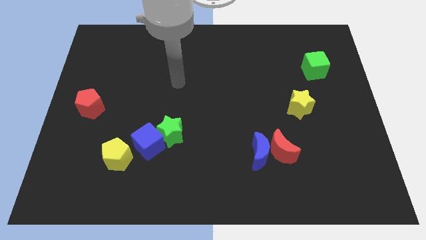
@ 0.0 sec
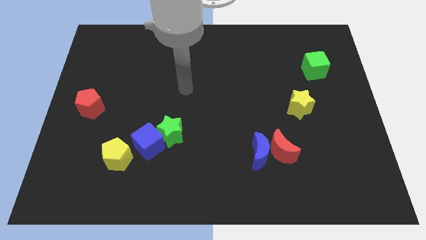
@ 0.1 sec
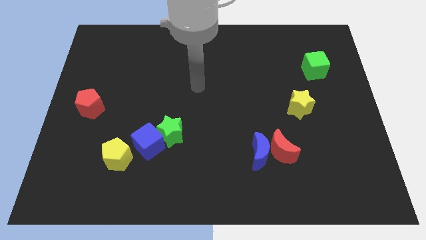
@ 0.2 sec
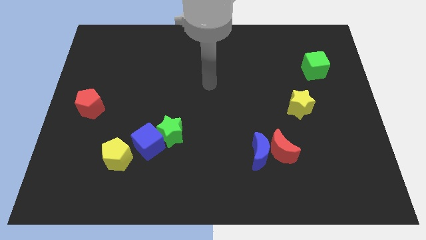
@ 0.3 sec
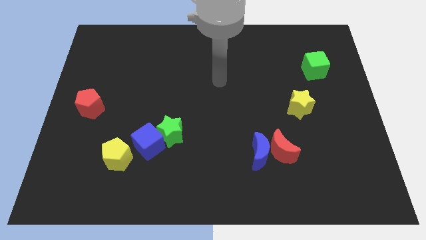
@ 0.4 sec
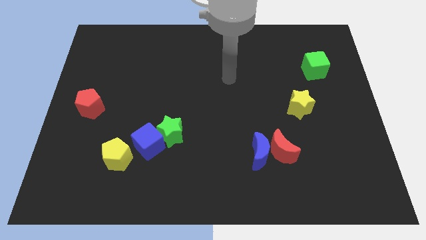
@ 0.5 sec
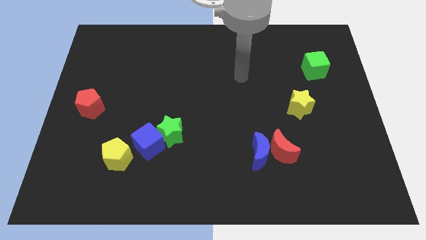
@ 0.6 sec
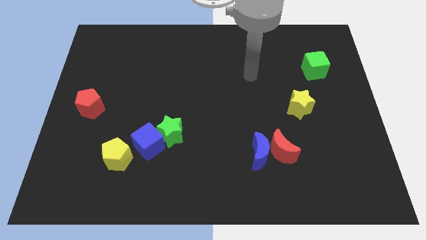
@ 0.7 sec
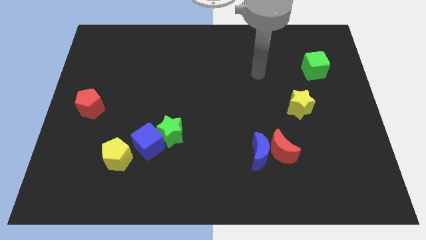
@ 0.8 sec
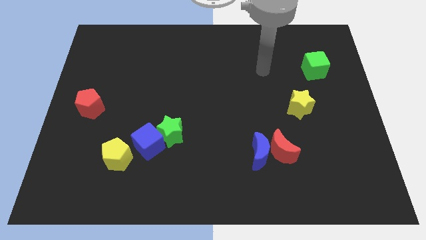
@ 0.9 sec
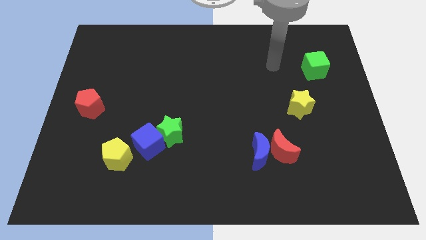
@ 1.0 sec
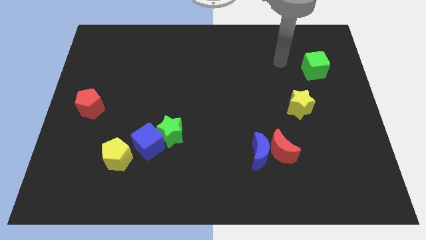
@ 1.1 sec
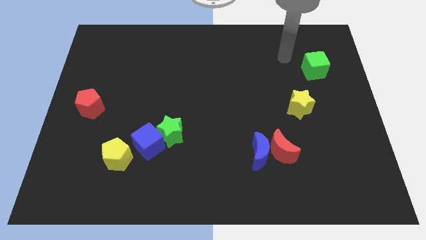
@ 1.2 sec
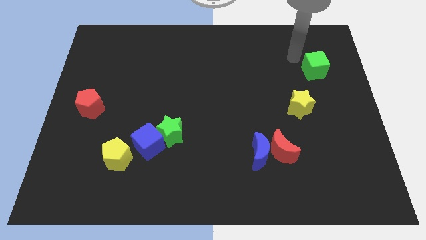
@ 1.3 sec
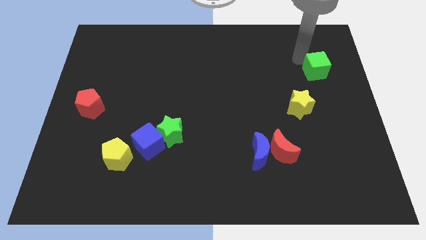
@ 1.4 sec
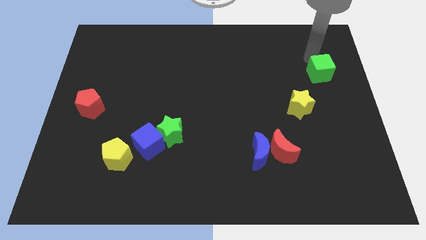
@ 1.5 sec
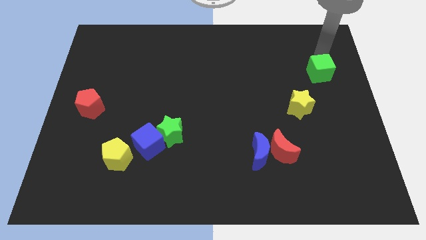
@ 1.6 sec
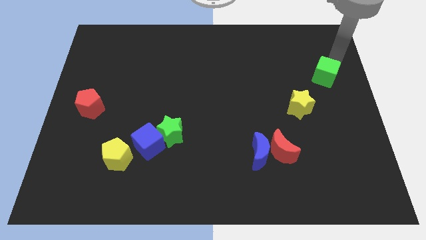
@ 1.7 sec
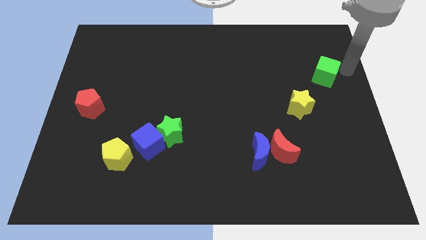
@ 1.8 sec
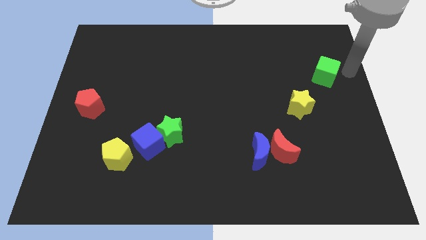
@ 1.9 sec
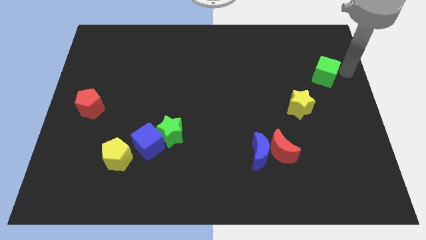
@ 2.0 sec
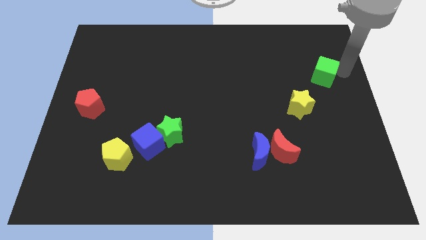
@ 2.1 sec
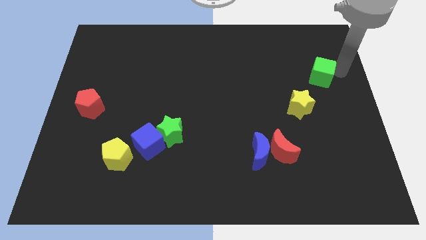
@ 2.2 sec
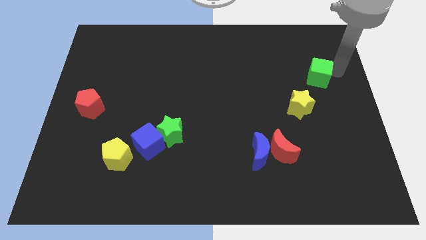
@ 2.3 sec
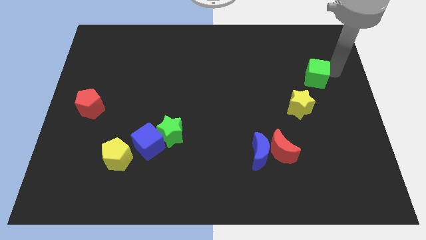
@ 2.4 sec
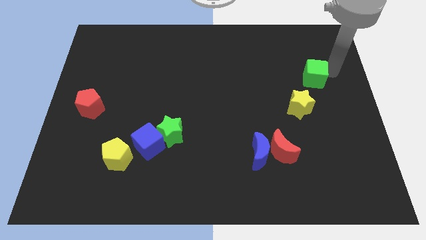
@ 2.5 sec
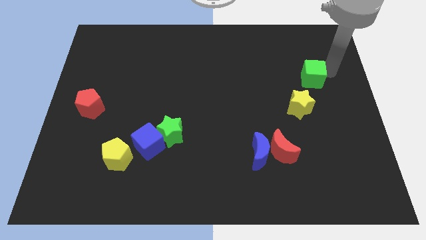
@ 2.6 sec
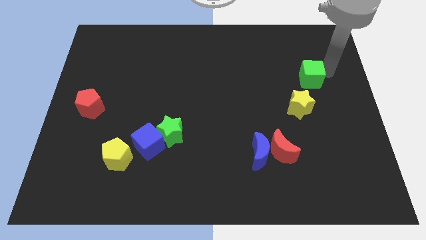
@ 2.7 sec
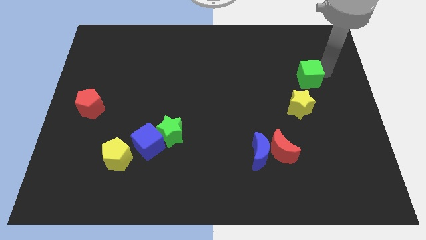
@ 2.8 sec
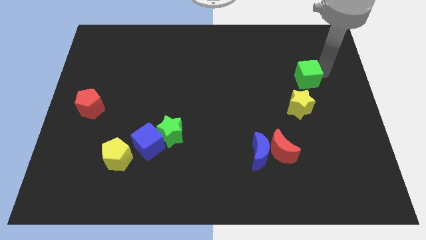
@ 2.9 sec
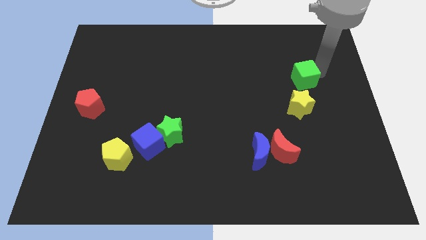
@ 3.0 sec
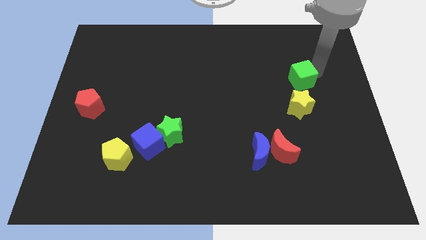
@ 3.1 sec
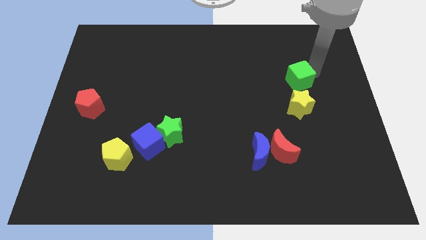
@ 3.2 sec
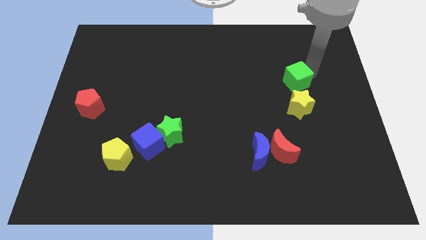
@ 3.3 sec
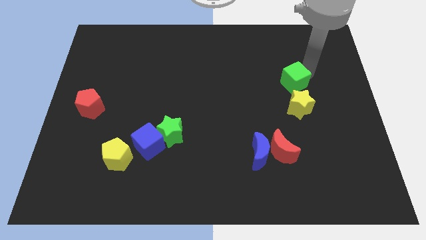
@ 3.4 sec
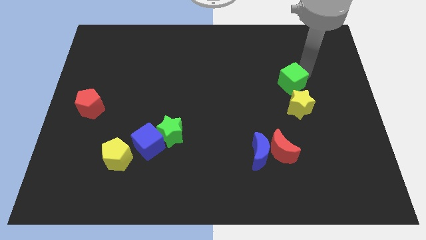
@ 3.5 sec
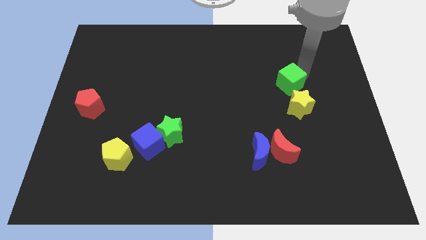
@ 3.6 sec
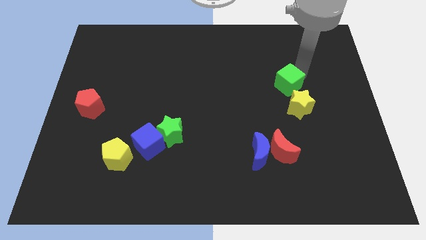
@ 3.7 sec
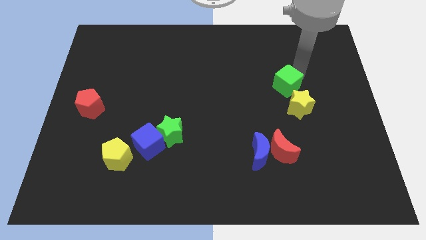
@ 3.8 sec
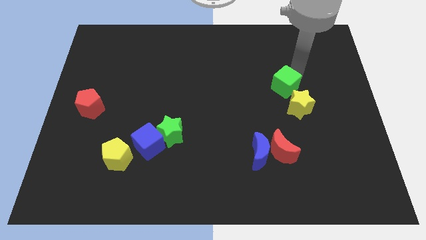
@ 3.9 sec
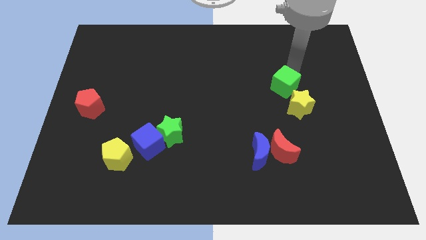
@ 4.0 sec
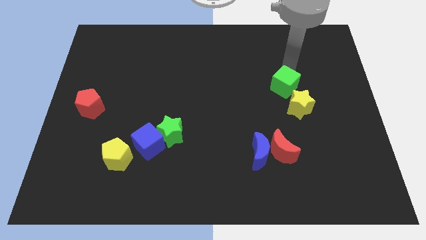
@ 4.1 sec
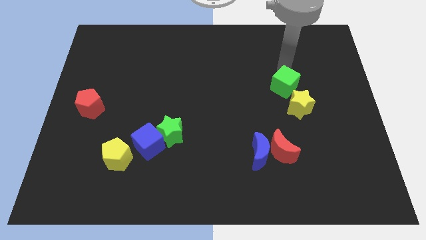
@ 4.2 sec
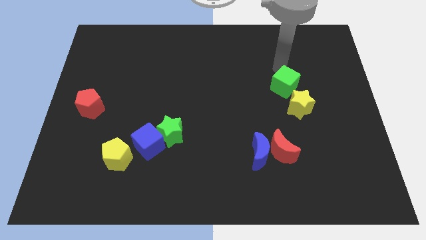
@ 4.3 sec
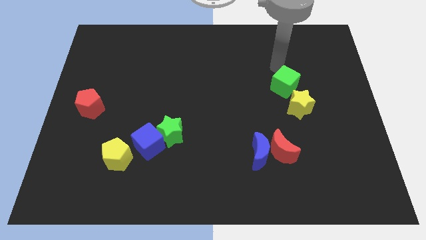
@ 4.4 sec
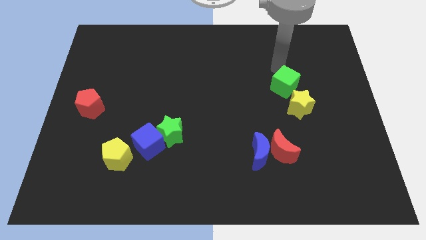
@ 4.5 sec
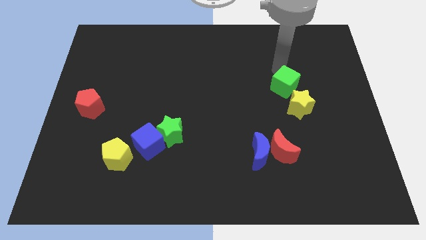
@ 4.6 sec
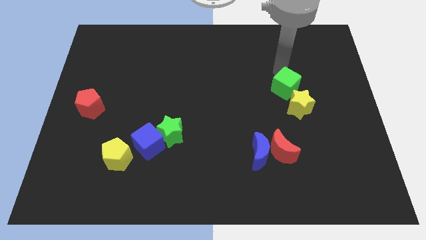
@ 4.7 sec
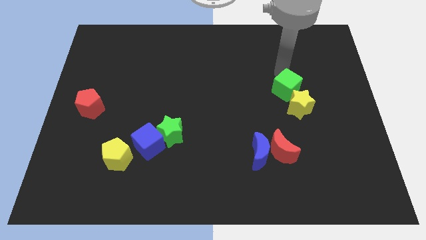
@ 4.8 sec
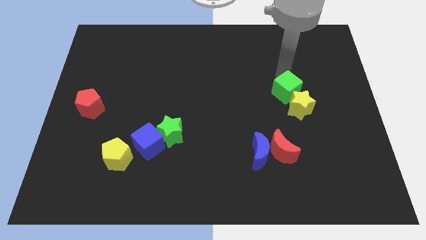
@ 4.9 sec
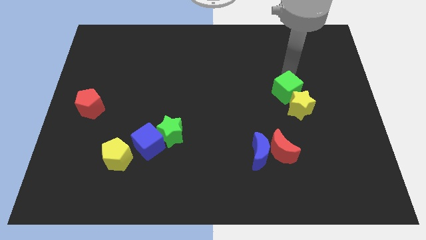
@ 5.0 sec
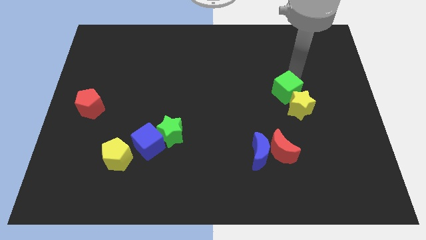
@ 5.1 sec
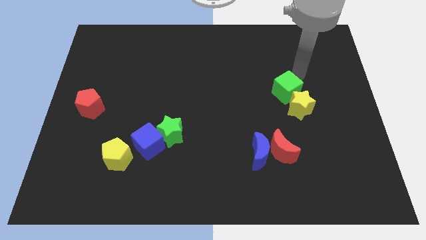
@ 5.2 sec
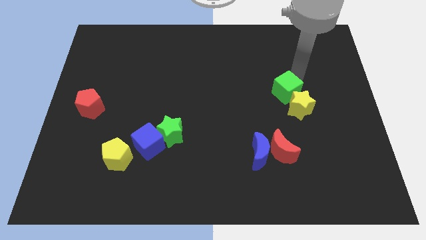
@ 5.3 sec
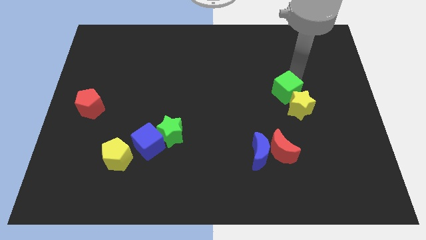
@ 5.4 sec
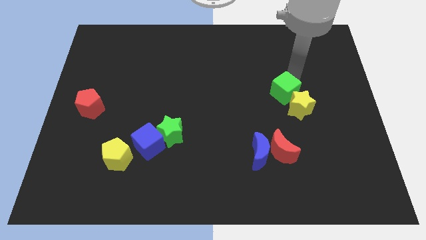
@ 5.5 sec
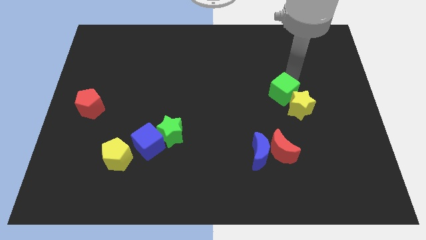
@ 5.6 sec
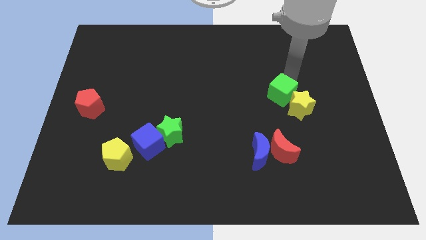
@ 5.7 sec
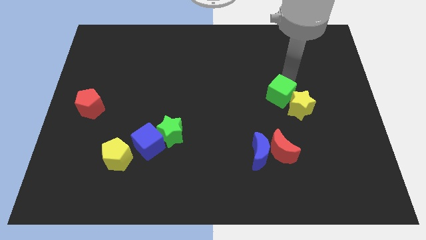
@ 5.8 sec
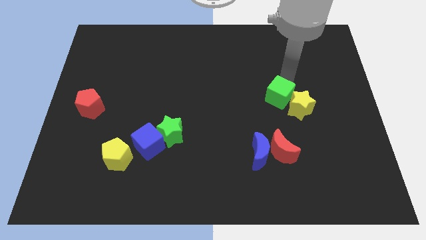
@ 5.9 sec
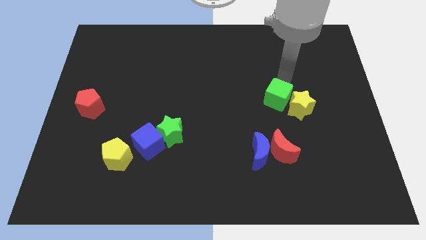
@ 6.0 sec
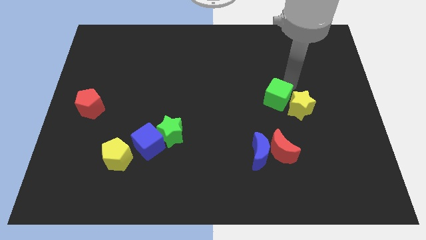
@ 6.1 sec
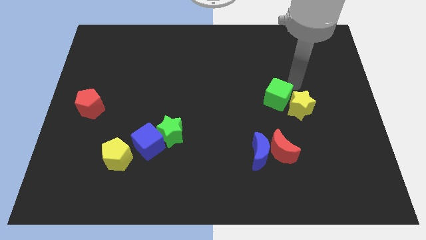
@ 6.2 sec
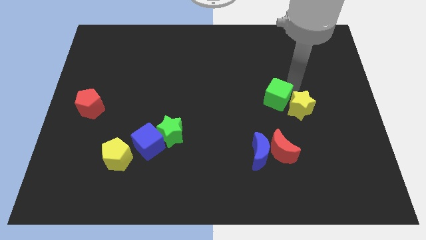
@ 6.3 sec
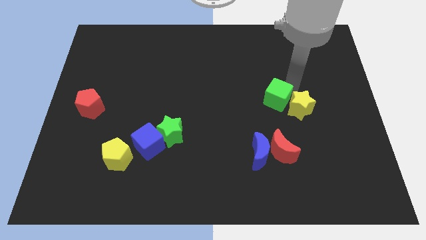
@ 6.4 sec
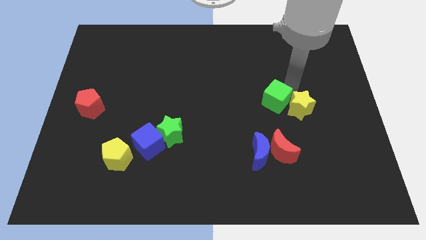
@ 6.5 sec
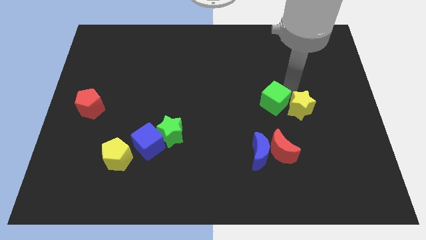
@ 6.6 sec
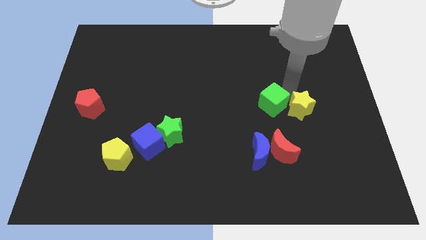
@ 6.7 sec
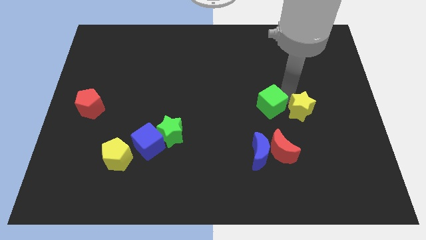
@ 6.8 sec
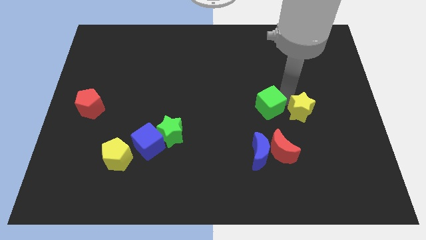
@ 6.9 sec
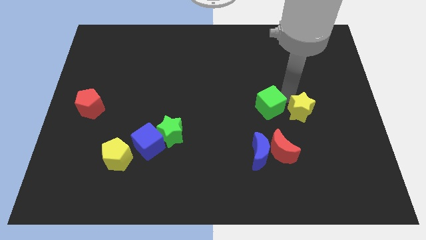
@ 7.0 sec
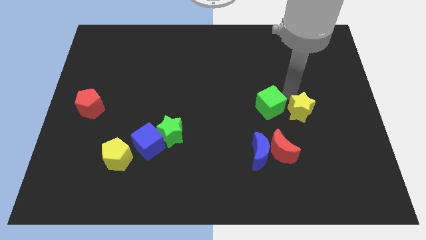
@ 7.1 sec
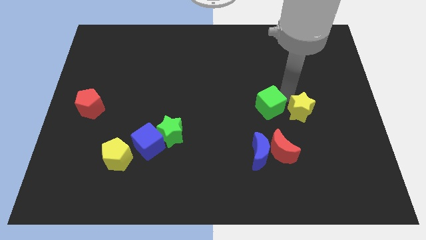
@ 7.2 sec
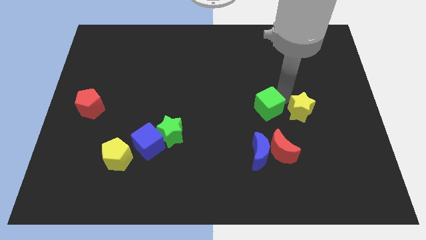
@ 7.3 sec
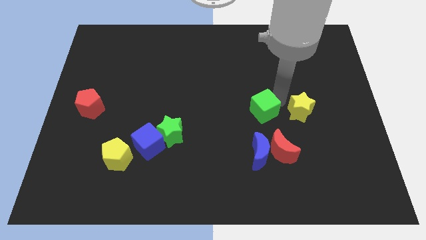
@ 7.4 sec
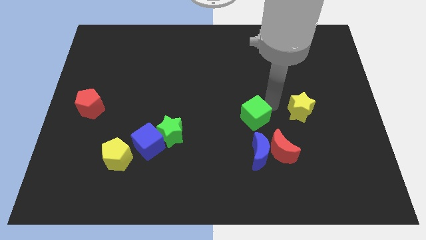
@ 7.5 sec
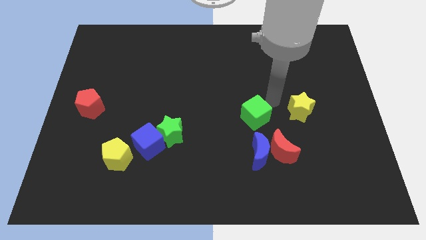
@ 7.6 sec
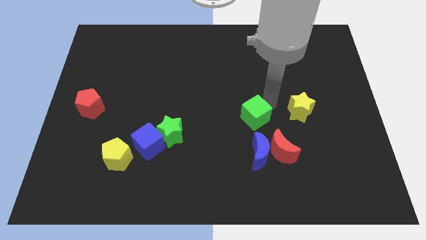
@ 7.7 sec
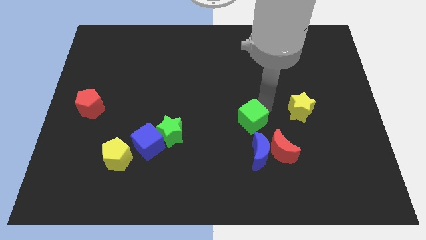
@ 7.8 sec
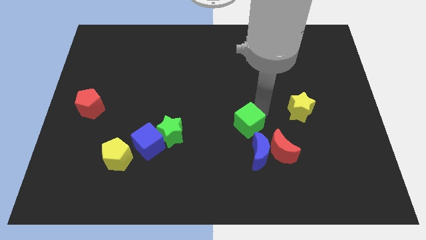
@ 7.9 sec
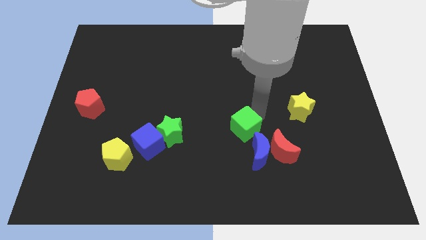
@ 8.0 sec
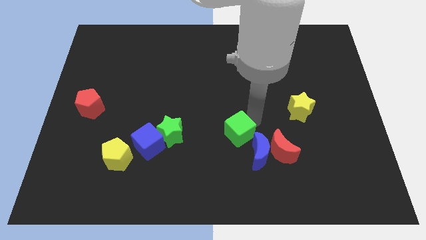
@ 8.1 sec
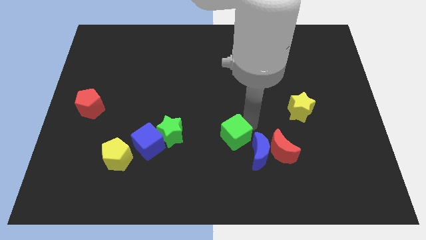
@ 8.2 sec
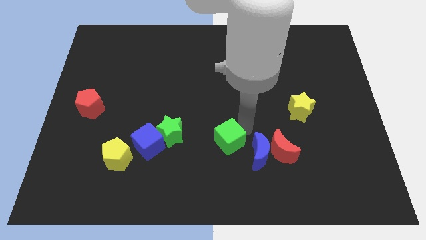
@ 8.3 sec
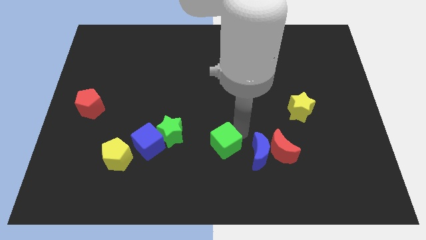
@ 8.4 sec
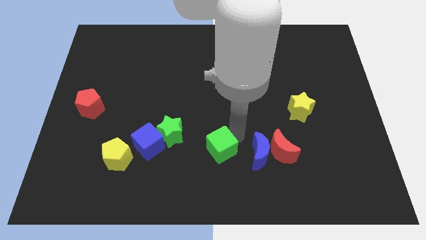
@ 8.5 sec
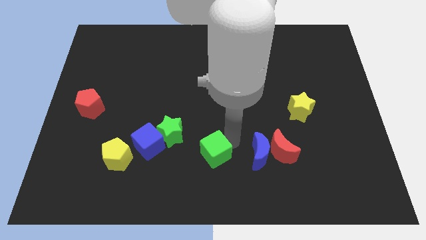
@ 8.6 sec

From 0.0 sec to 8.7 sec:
slide the green cube to the bottom right side of the green star
